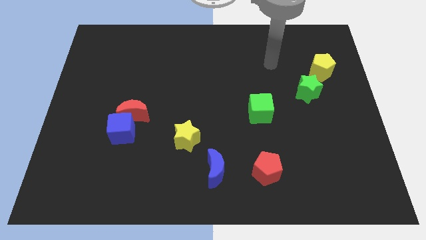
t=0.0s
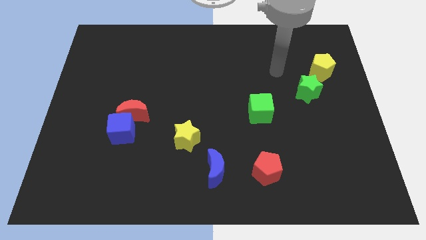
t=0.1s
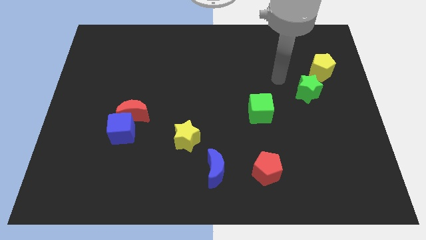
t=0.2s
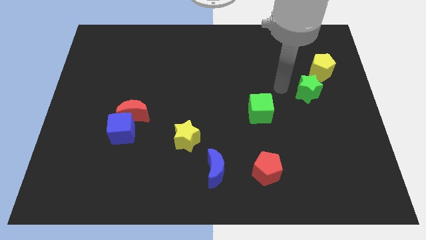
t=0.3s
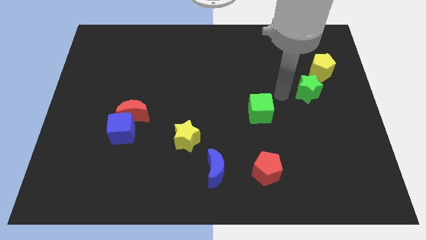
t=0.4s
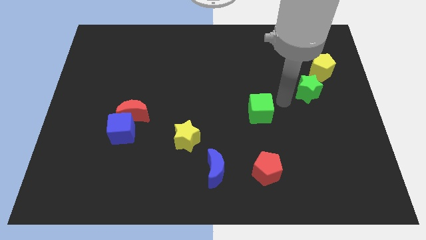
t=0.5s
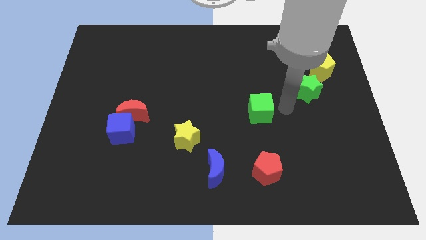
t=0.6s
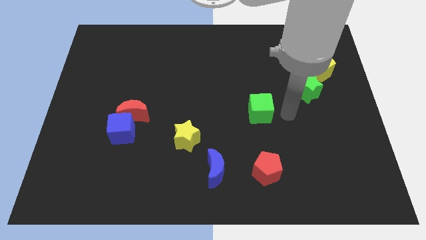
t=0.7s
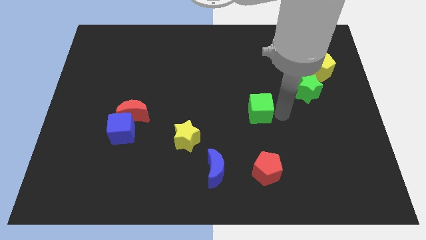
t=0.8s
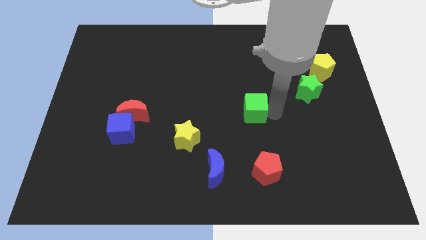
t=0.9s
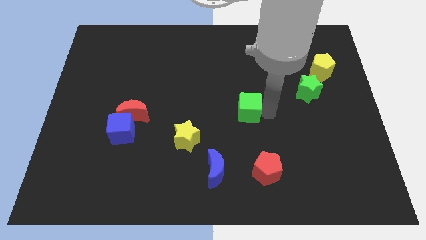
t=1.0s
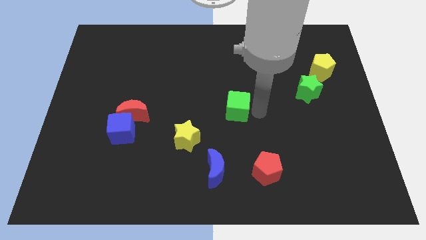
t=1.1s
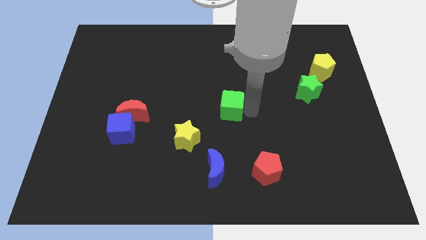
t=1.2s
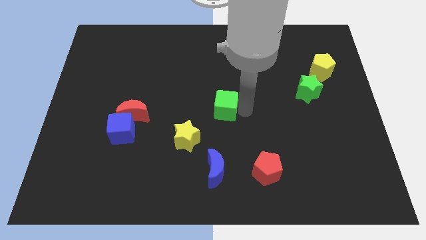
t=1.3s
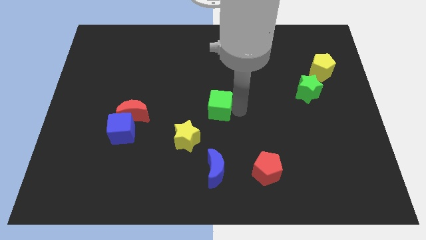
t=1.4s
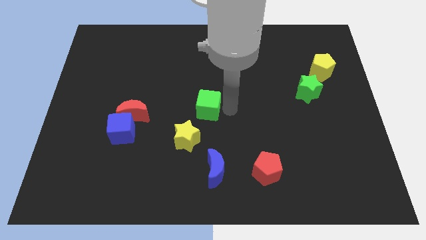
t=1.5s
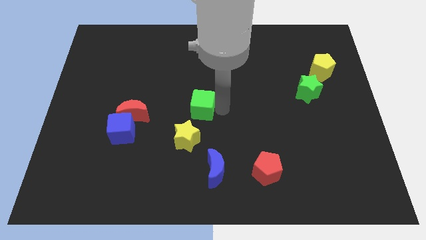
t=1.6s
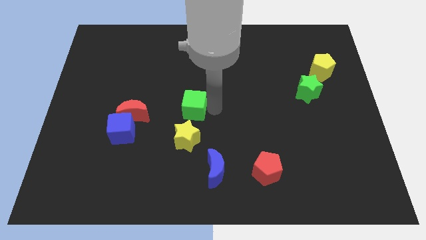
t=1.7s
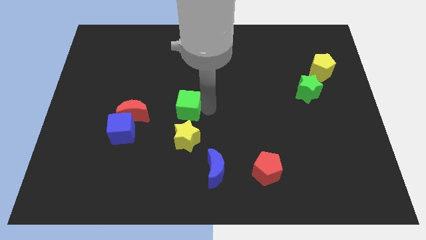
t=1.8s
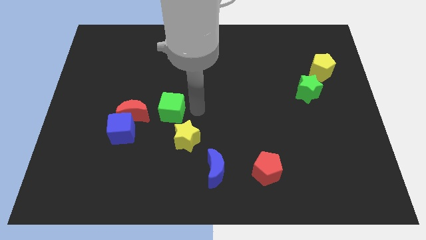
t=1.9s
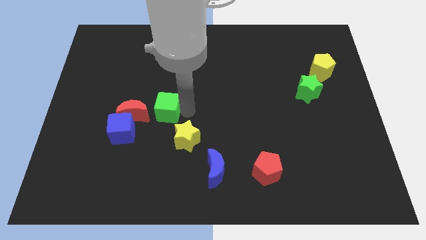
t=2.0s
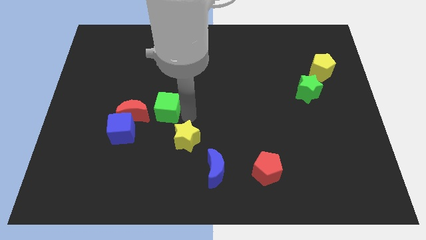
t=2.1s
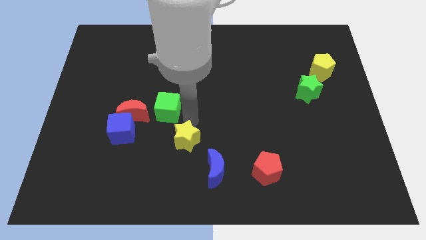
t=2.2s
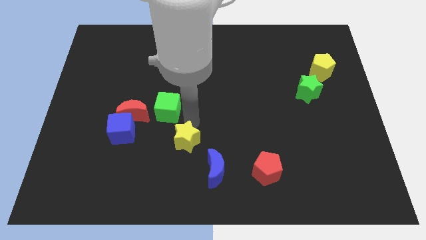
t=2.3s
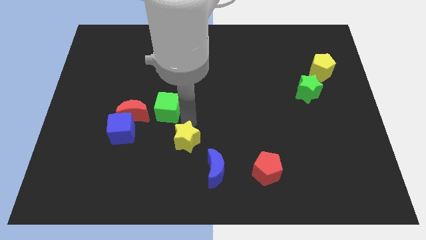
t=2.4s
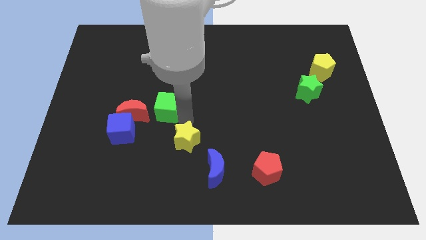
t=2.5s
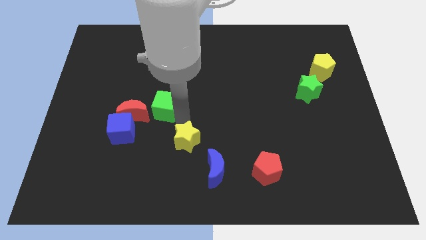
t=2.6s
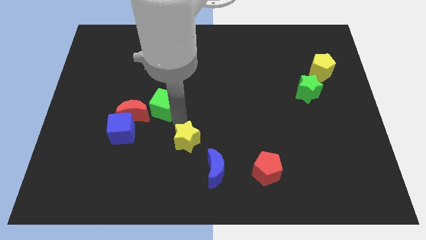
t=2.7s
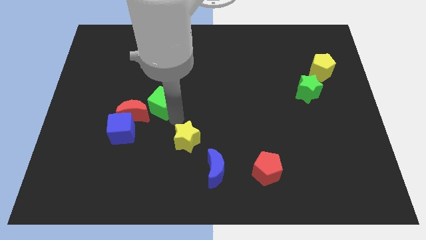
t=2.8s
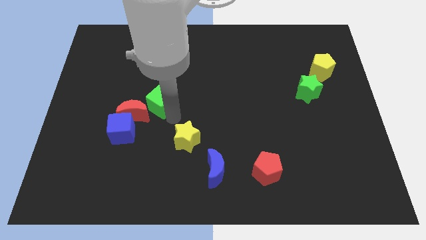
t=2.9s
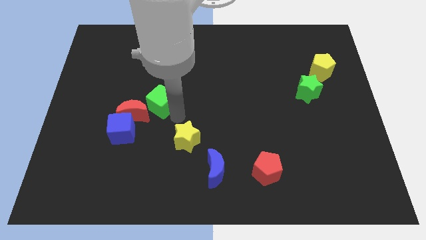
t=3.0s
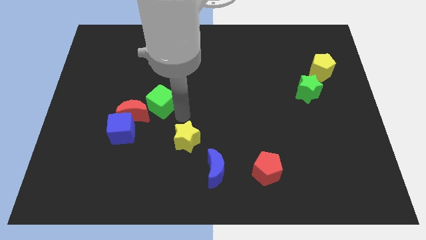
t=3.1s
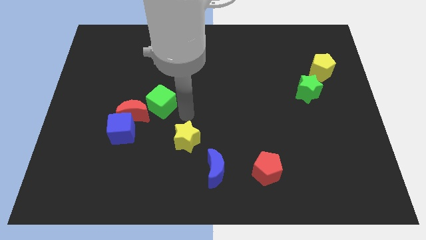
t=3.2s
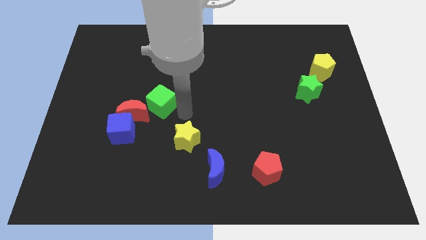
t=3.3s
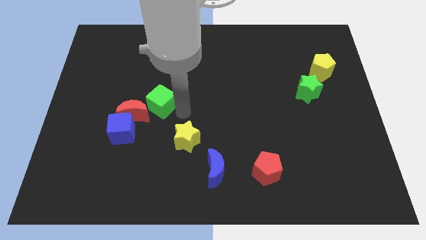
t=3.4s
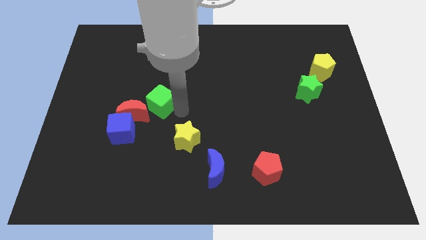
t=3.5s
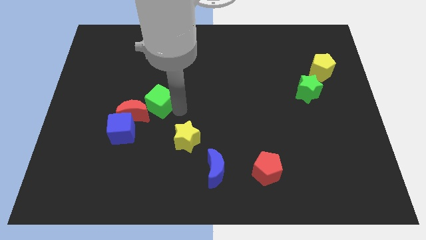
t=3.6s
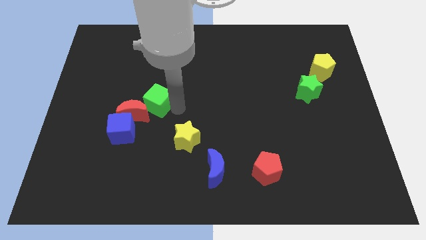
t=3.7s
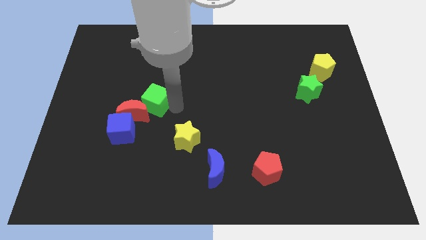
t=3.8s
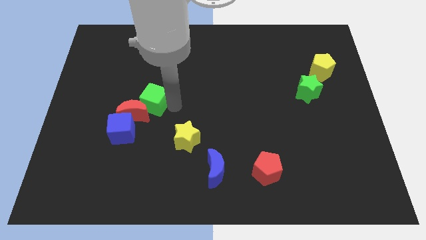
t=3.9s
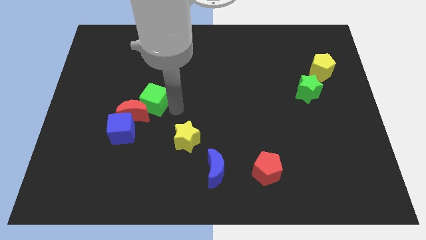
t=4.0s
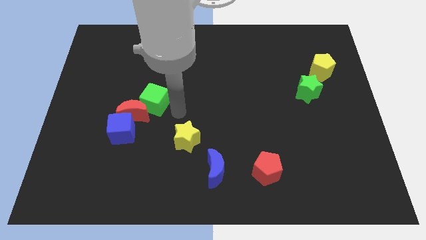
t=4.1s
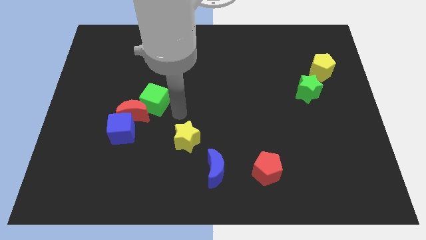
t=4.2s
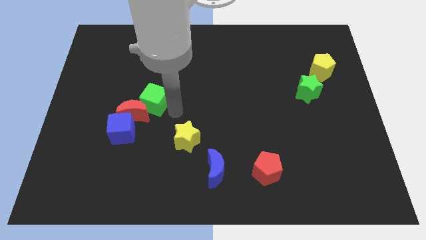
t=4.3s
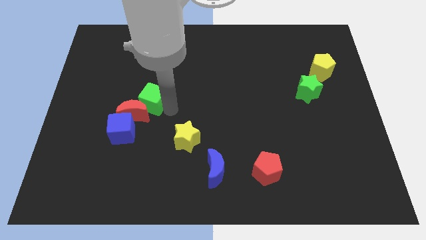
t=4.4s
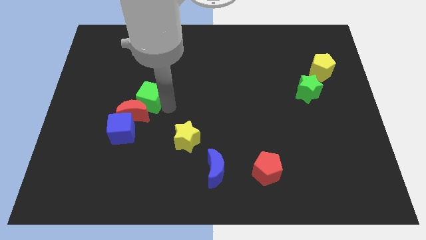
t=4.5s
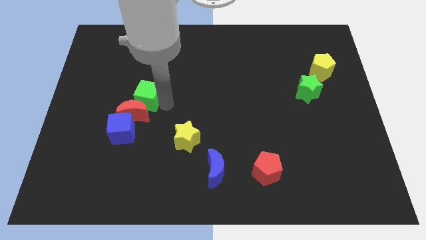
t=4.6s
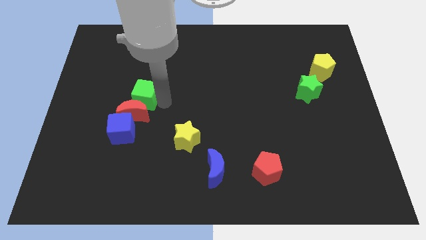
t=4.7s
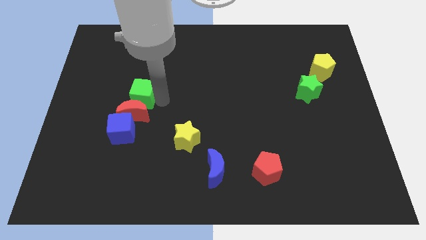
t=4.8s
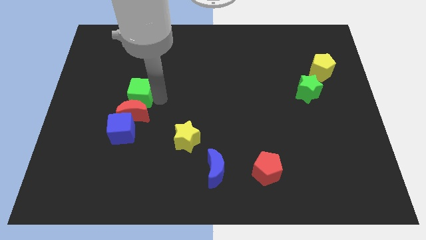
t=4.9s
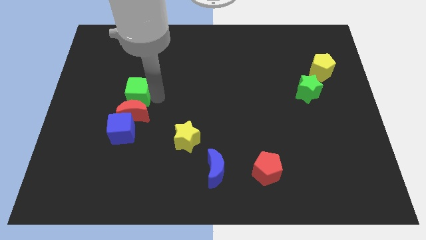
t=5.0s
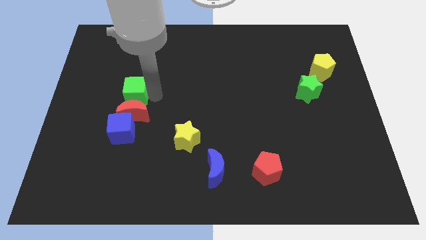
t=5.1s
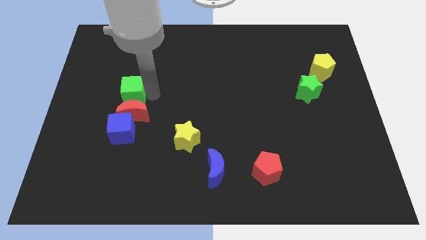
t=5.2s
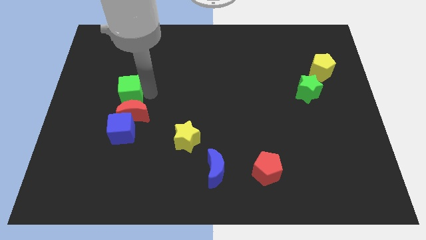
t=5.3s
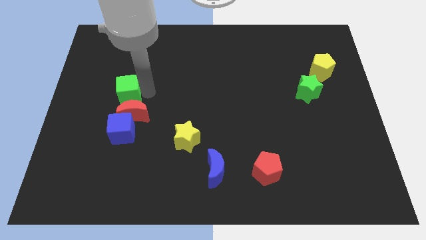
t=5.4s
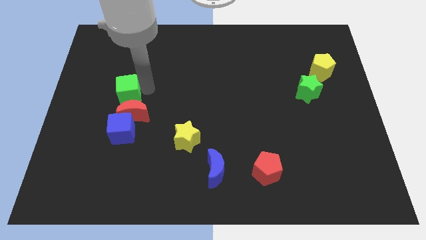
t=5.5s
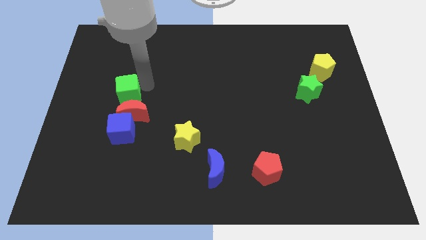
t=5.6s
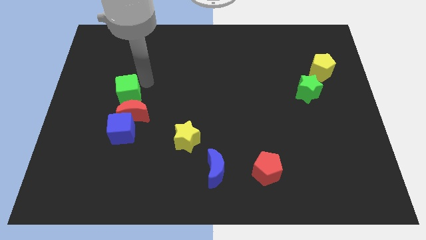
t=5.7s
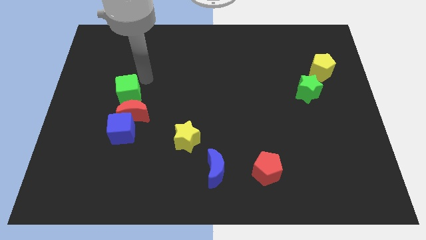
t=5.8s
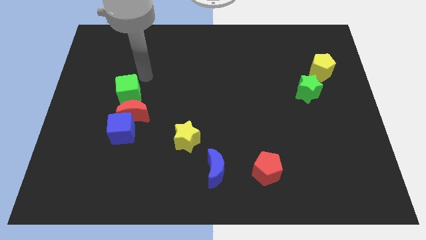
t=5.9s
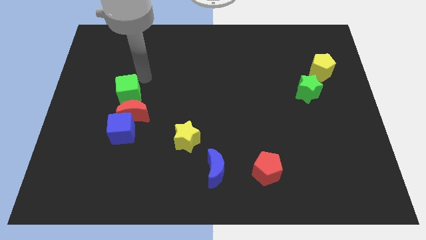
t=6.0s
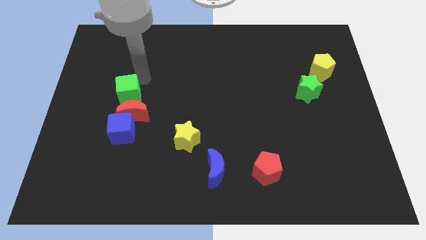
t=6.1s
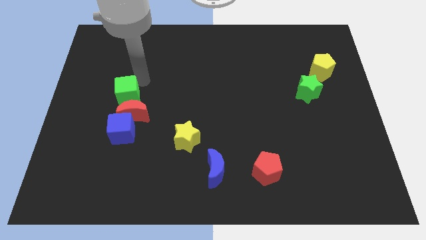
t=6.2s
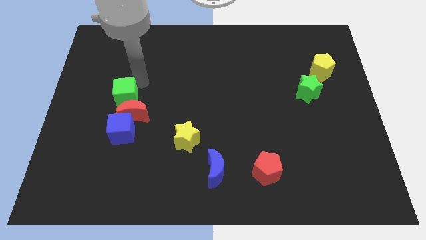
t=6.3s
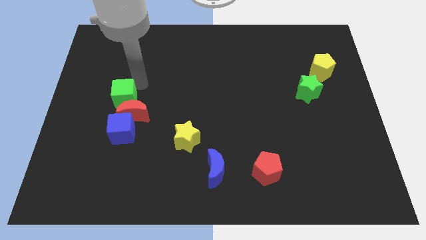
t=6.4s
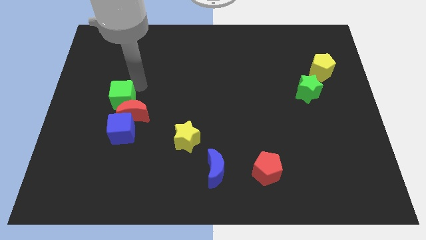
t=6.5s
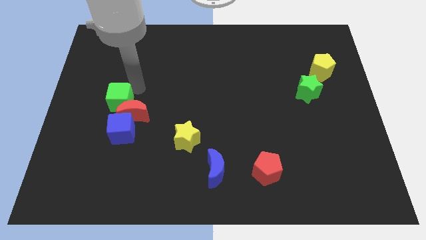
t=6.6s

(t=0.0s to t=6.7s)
put the green cube just left of the red moon

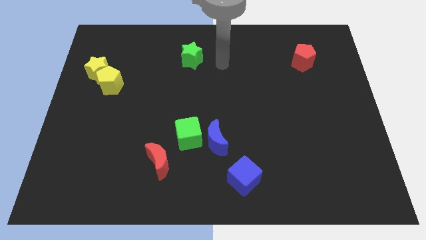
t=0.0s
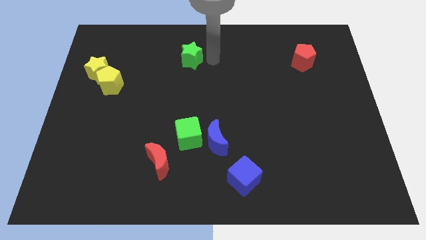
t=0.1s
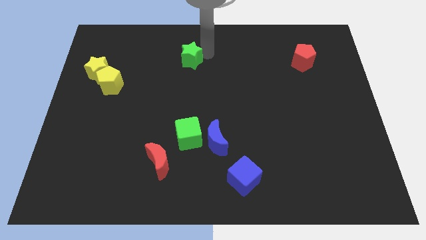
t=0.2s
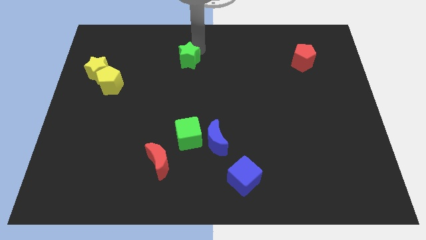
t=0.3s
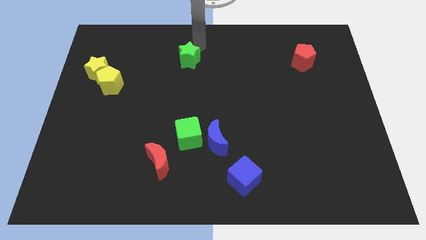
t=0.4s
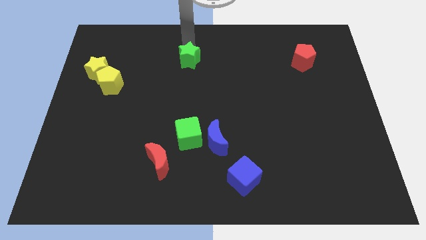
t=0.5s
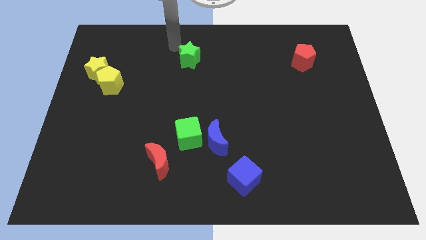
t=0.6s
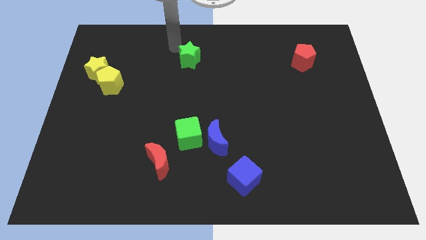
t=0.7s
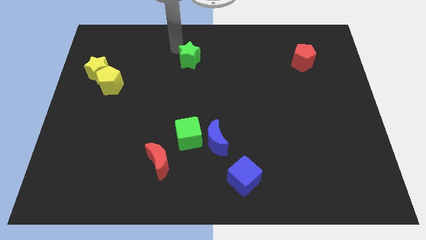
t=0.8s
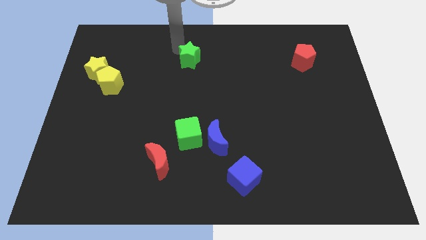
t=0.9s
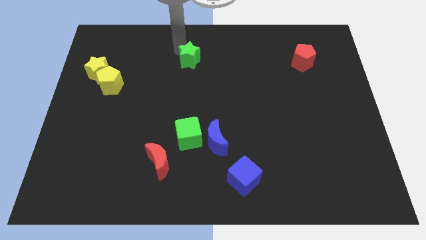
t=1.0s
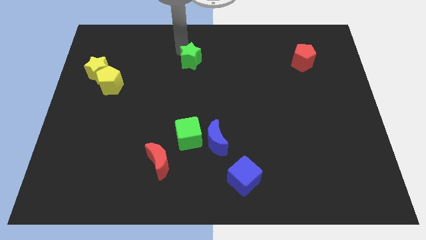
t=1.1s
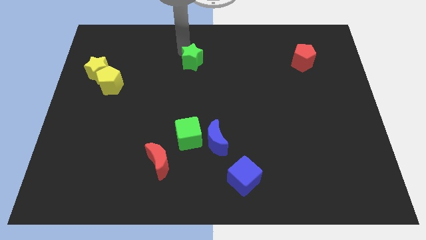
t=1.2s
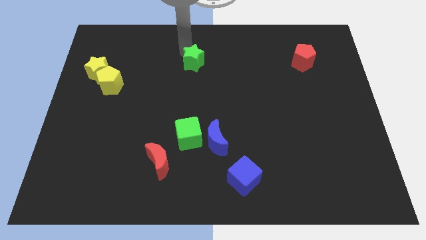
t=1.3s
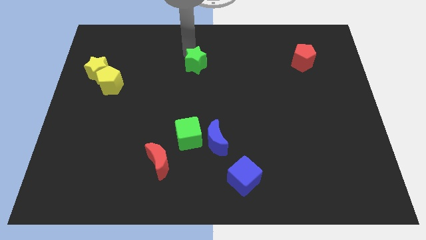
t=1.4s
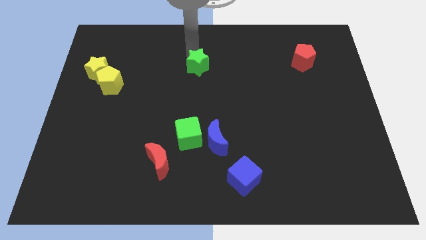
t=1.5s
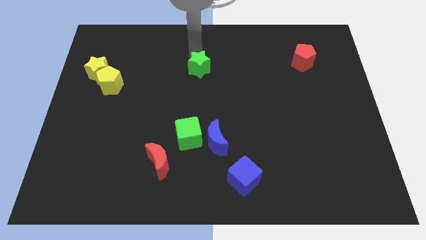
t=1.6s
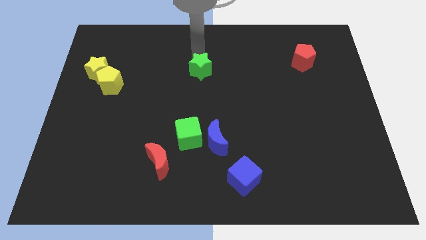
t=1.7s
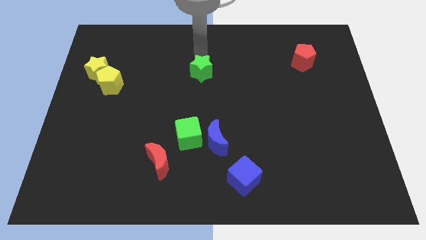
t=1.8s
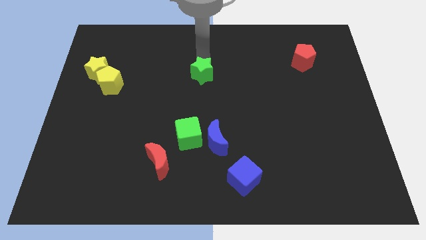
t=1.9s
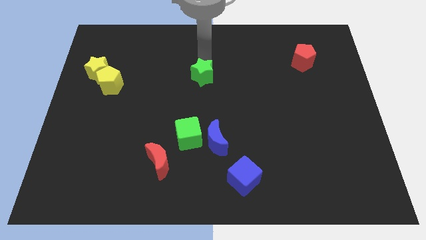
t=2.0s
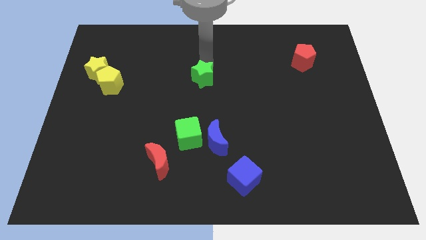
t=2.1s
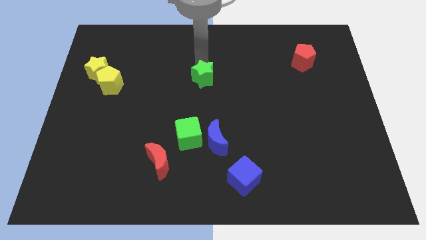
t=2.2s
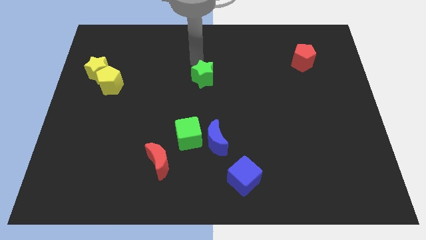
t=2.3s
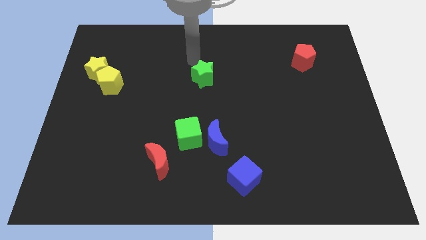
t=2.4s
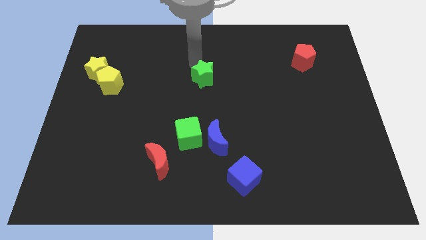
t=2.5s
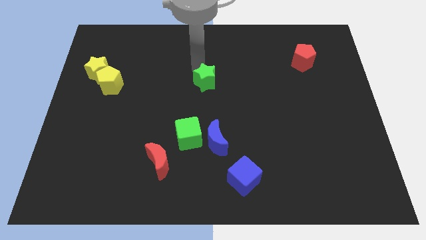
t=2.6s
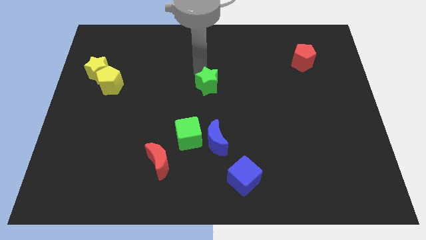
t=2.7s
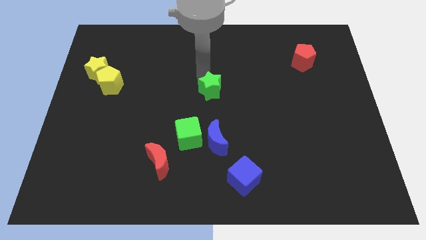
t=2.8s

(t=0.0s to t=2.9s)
move the green star above the blue moon
